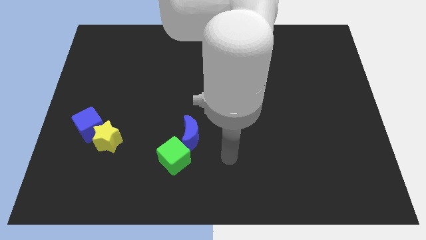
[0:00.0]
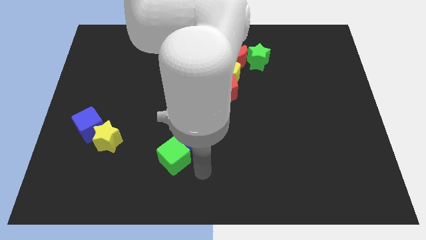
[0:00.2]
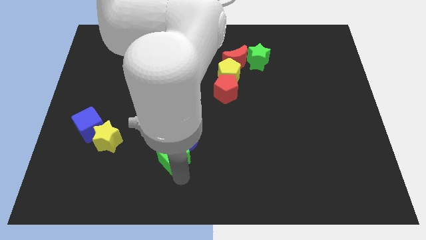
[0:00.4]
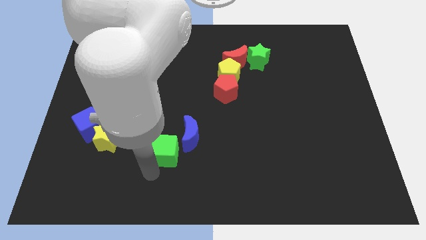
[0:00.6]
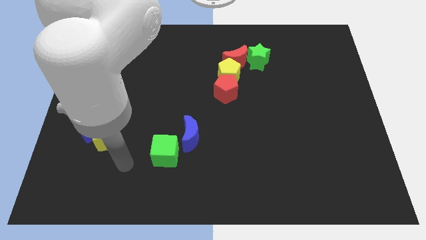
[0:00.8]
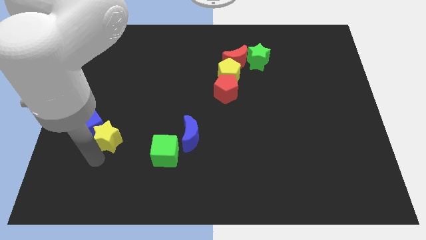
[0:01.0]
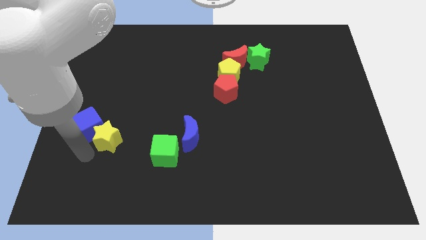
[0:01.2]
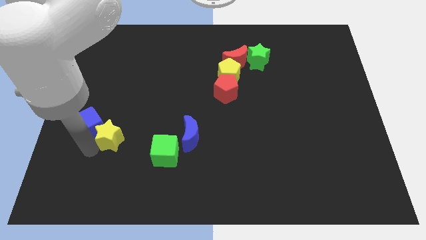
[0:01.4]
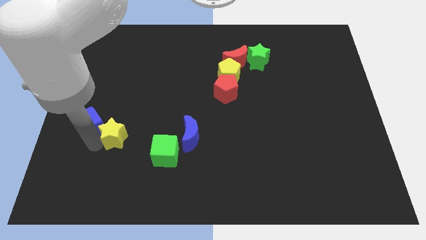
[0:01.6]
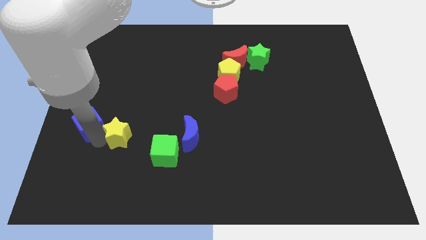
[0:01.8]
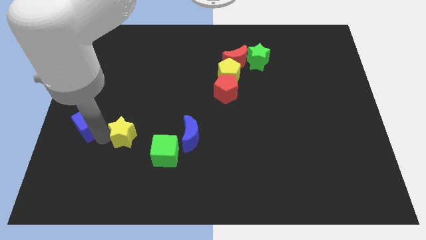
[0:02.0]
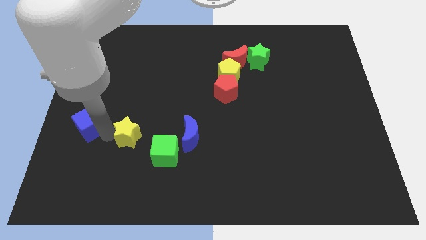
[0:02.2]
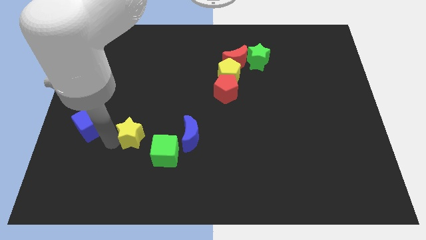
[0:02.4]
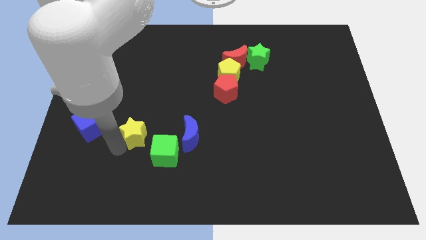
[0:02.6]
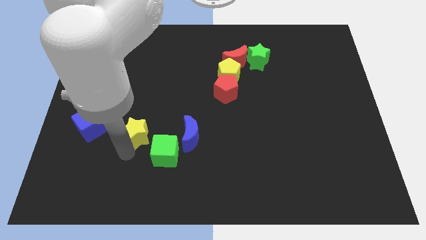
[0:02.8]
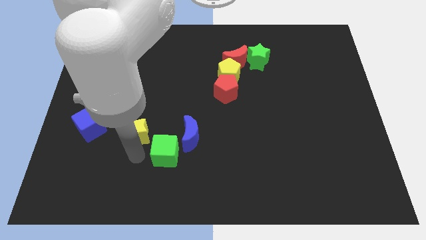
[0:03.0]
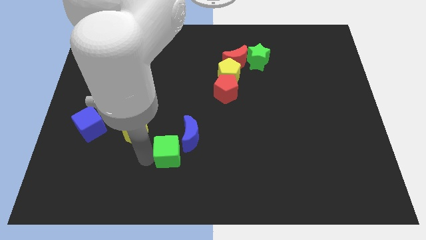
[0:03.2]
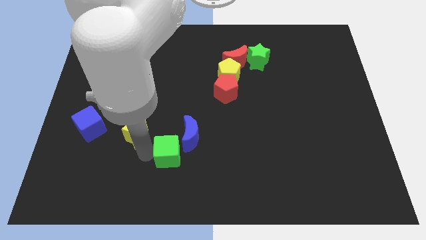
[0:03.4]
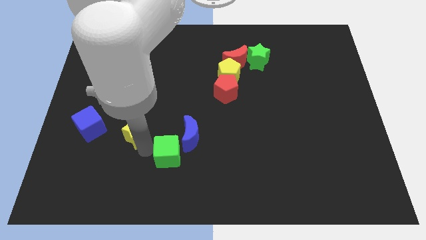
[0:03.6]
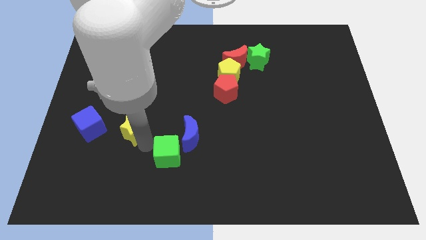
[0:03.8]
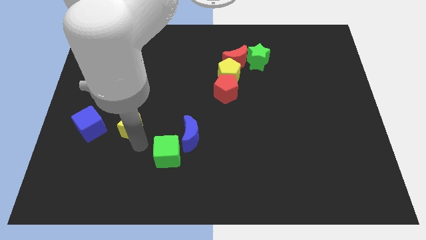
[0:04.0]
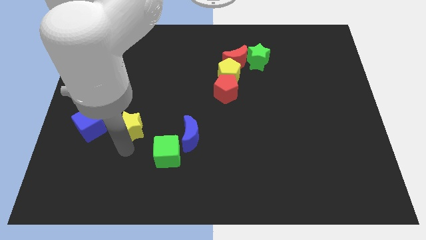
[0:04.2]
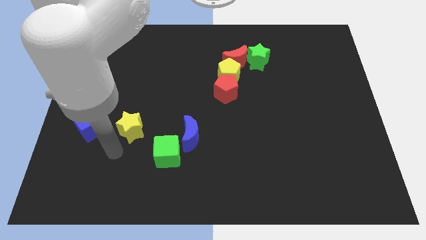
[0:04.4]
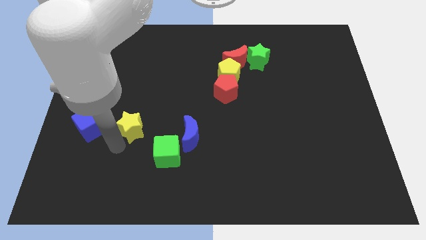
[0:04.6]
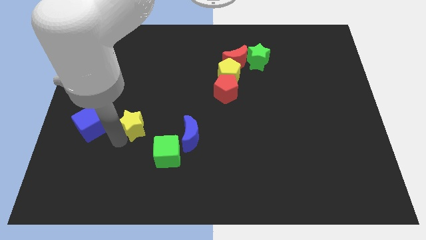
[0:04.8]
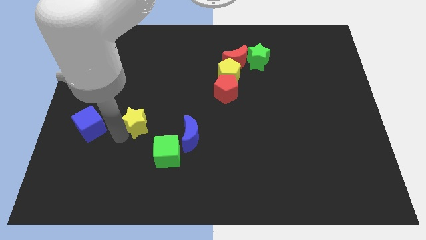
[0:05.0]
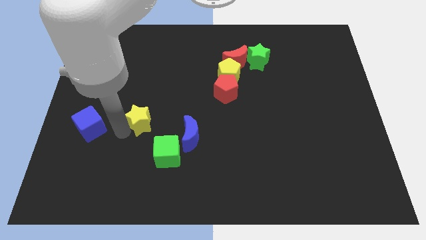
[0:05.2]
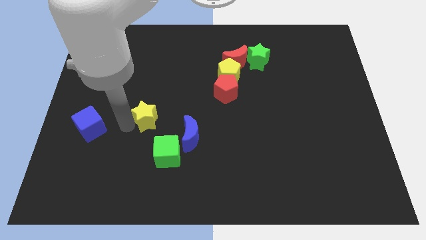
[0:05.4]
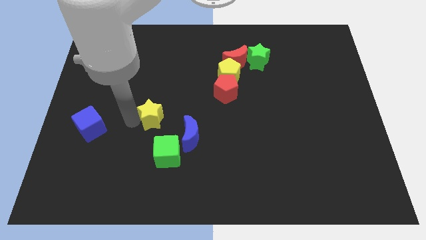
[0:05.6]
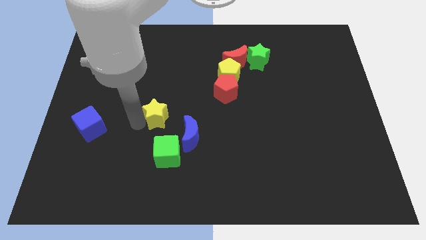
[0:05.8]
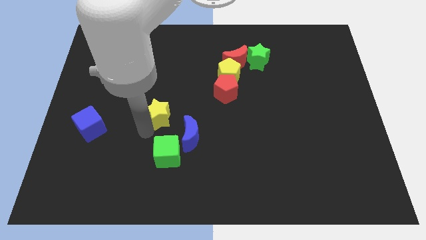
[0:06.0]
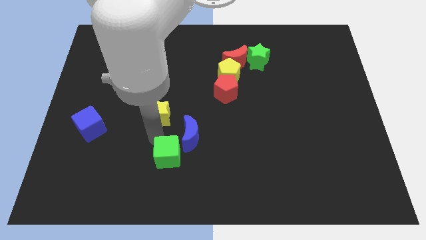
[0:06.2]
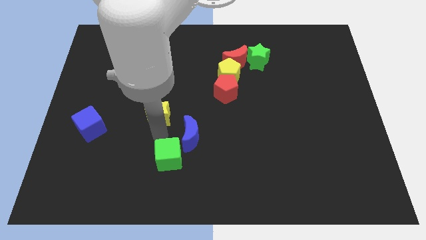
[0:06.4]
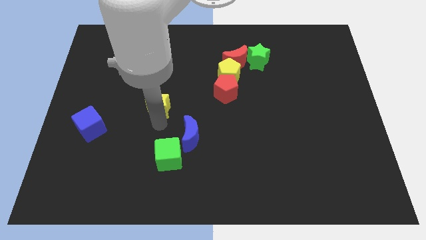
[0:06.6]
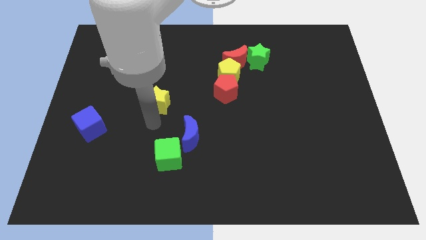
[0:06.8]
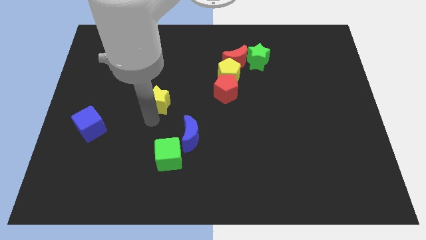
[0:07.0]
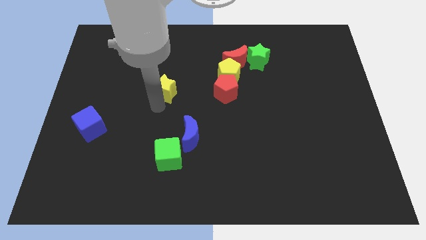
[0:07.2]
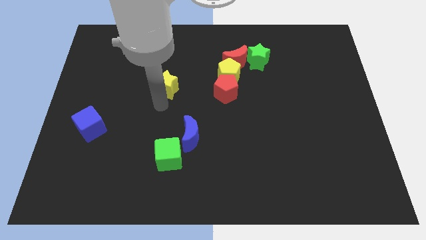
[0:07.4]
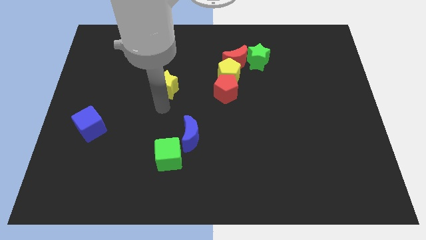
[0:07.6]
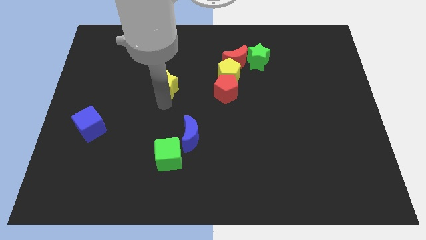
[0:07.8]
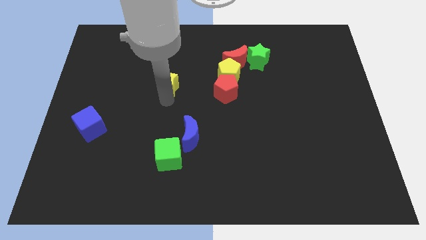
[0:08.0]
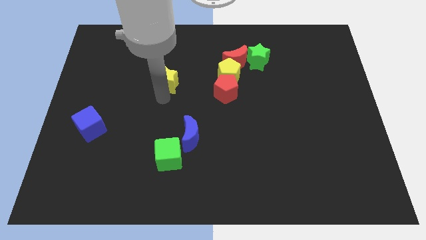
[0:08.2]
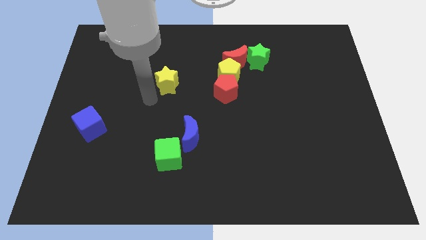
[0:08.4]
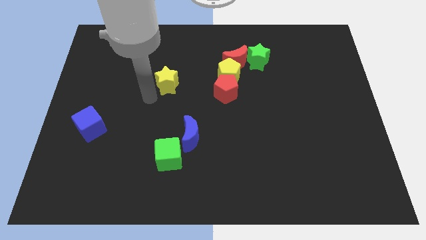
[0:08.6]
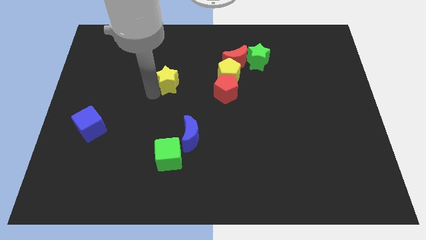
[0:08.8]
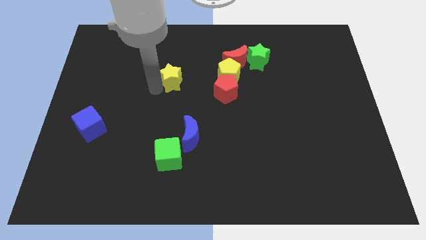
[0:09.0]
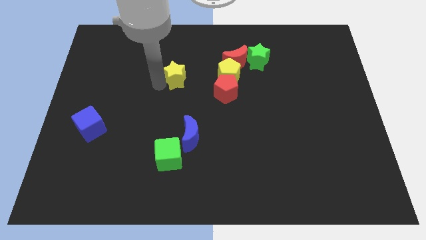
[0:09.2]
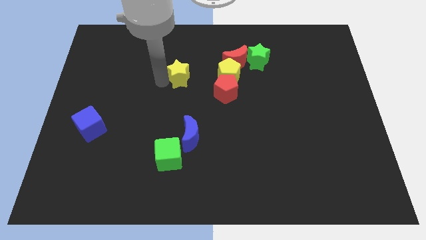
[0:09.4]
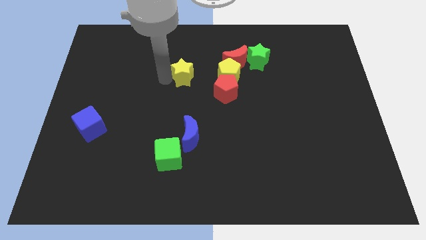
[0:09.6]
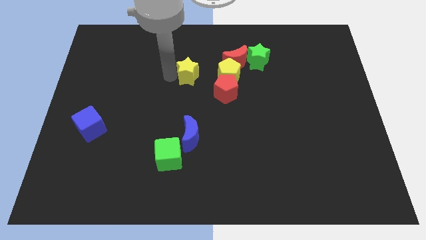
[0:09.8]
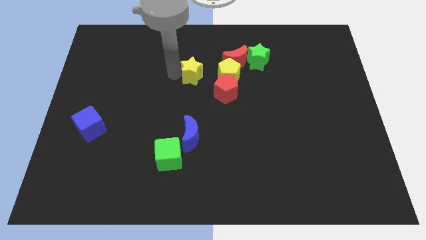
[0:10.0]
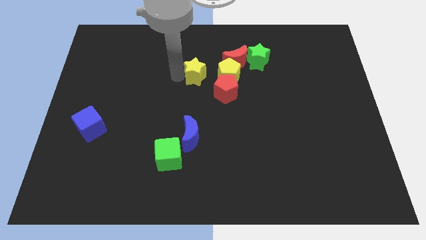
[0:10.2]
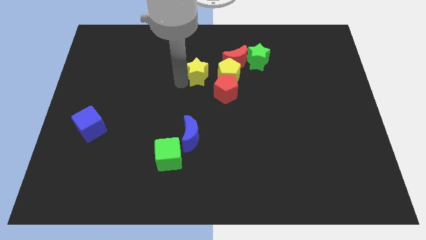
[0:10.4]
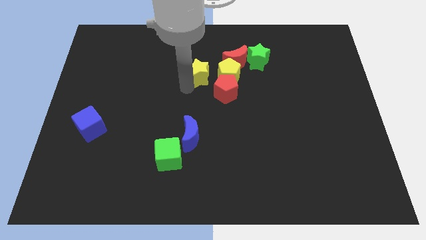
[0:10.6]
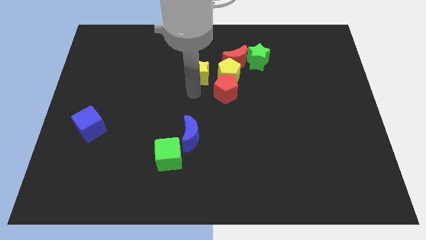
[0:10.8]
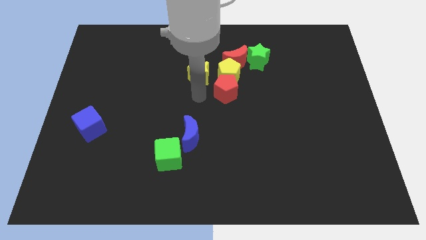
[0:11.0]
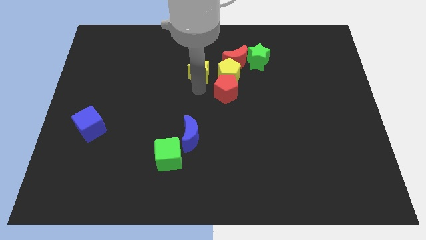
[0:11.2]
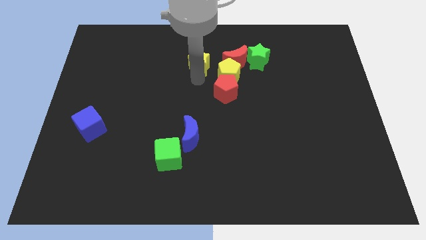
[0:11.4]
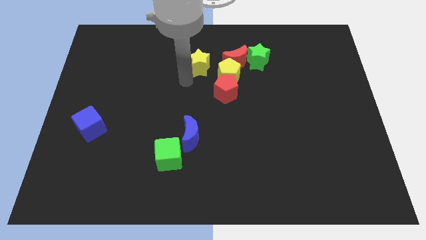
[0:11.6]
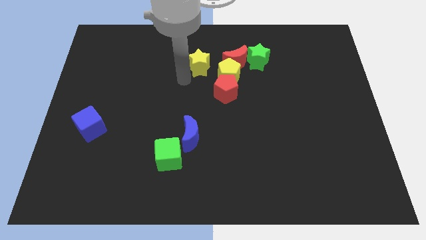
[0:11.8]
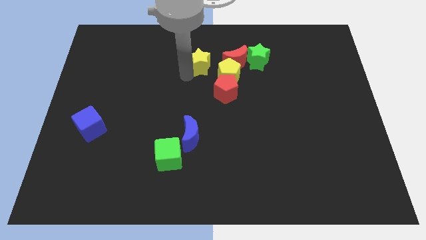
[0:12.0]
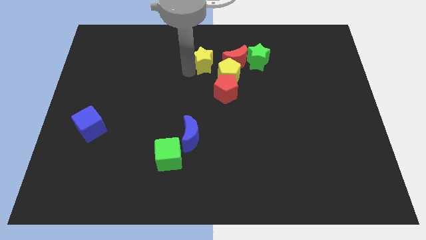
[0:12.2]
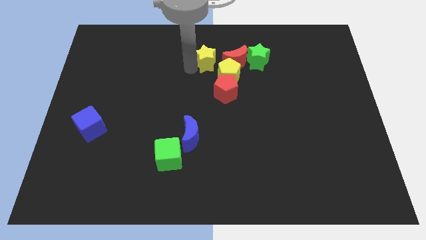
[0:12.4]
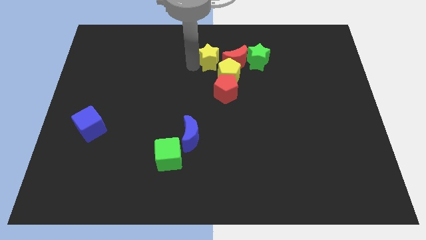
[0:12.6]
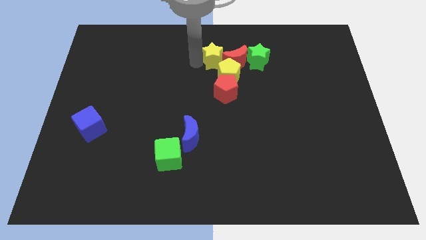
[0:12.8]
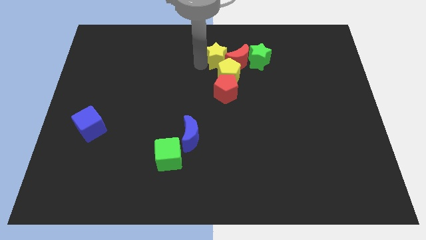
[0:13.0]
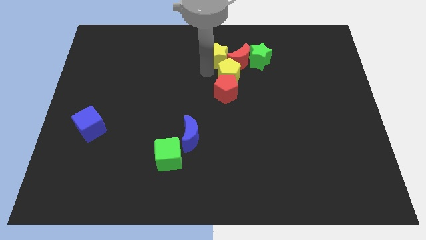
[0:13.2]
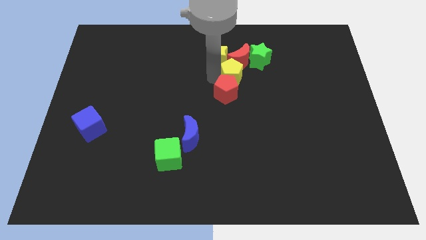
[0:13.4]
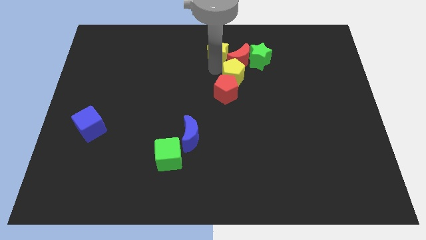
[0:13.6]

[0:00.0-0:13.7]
move the yellow star to the top
